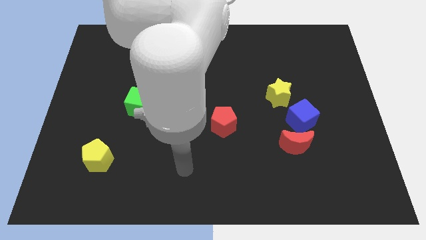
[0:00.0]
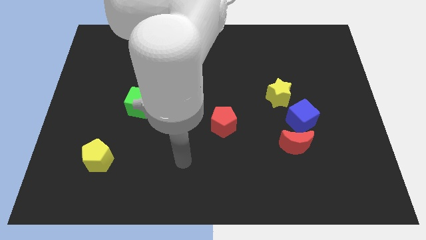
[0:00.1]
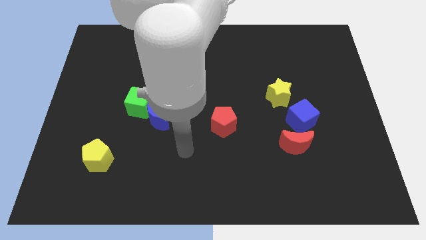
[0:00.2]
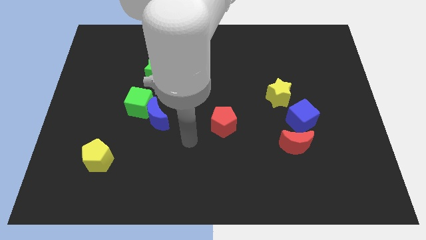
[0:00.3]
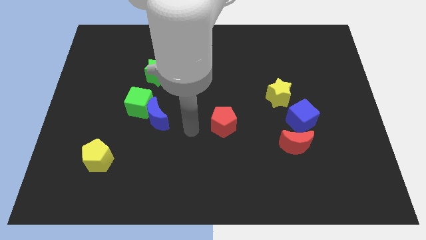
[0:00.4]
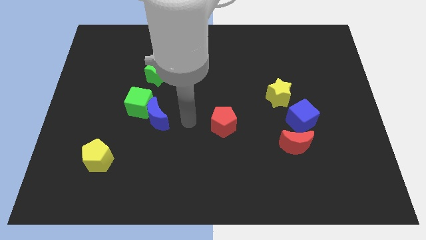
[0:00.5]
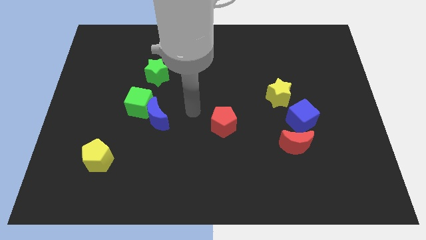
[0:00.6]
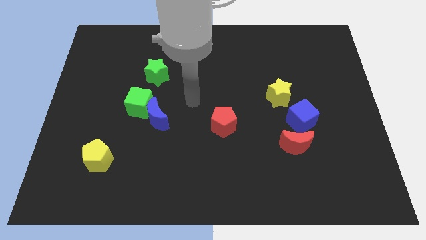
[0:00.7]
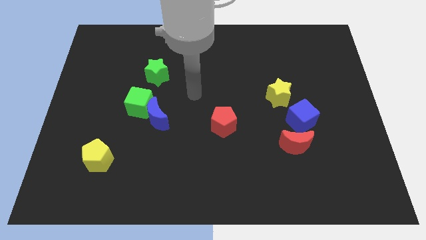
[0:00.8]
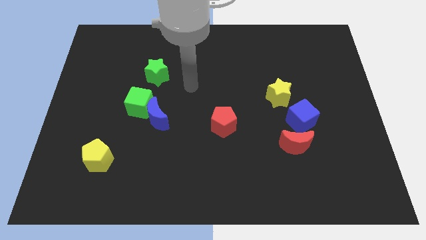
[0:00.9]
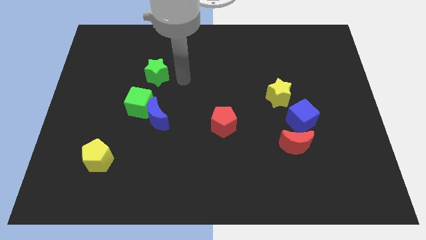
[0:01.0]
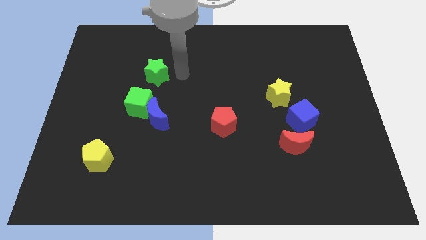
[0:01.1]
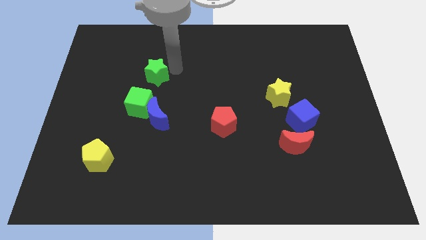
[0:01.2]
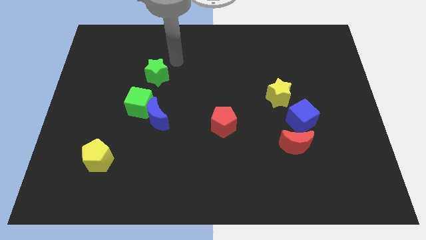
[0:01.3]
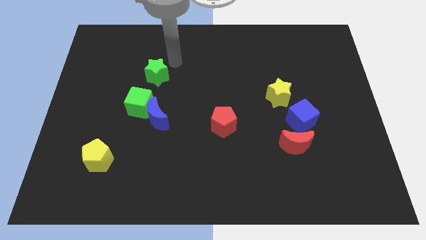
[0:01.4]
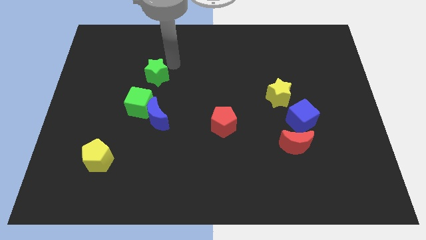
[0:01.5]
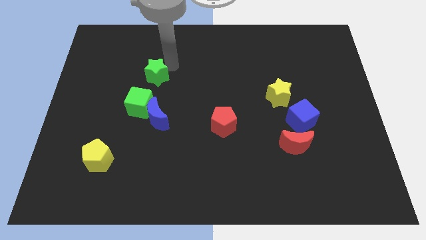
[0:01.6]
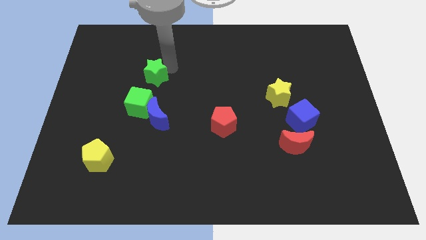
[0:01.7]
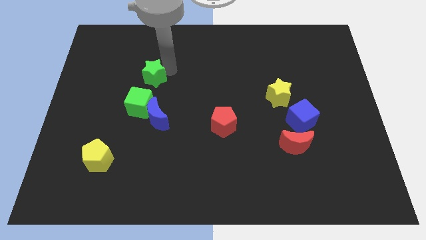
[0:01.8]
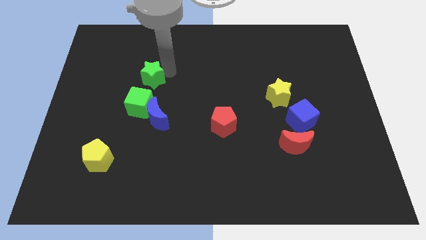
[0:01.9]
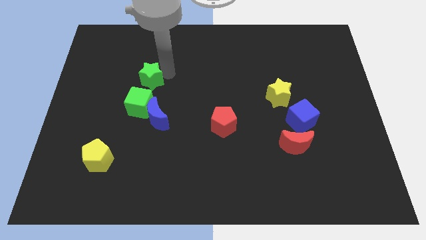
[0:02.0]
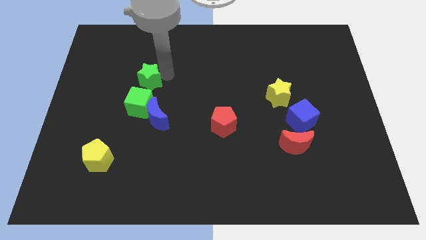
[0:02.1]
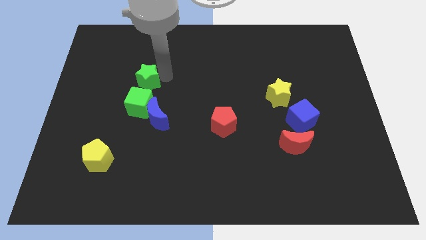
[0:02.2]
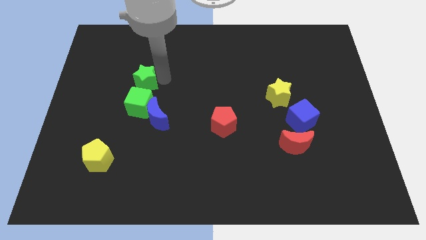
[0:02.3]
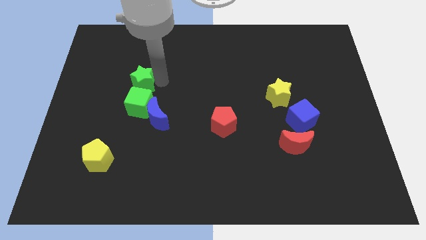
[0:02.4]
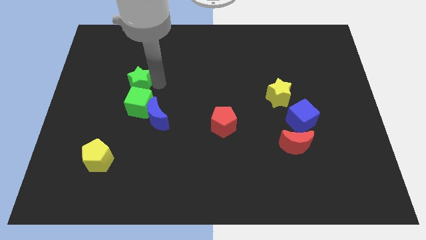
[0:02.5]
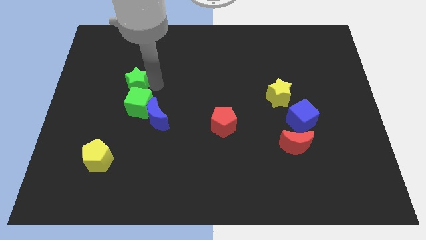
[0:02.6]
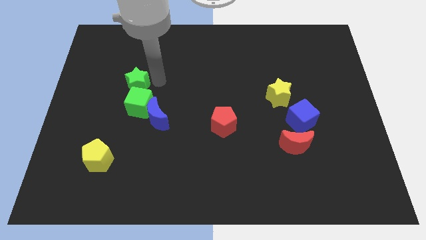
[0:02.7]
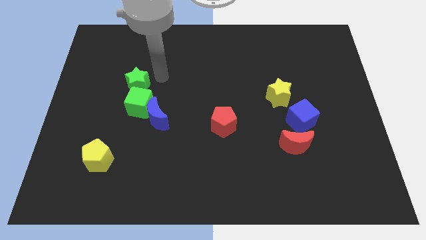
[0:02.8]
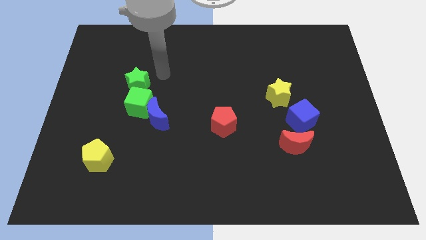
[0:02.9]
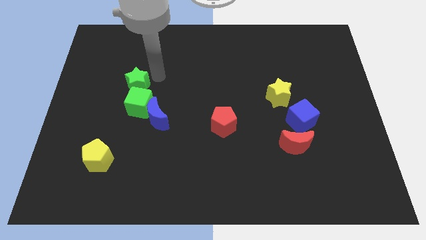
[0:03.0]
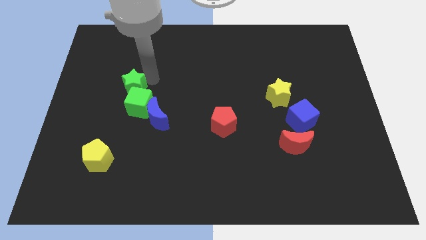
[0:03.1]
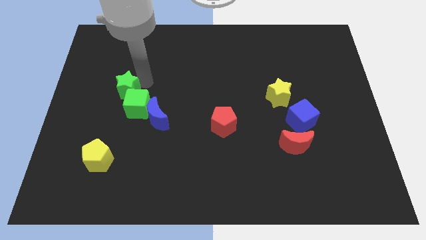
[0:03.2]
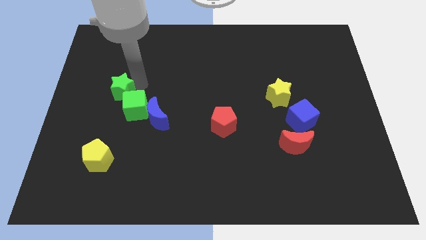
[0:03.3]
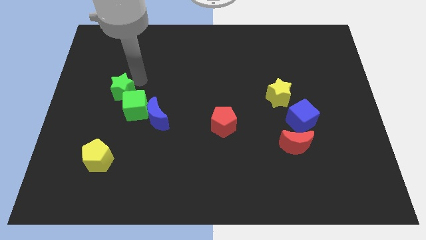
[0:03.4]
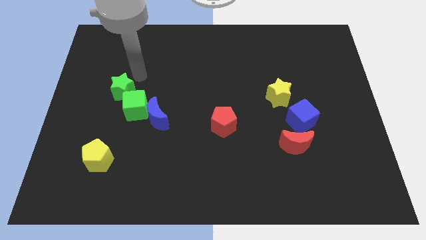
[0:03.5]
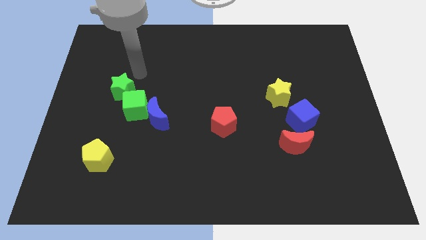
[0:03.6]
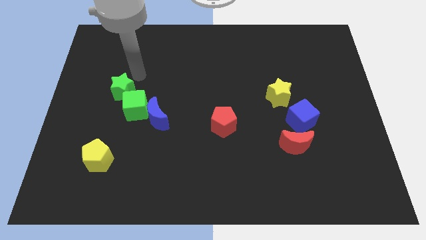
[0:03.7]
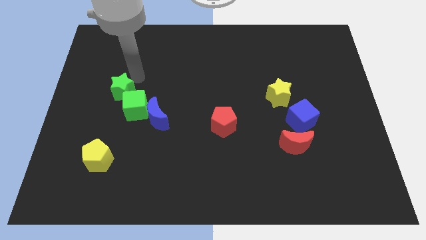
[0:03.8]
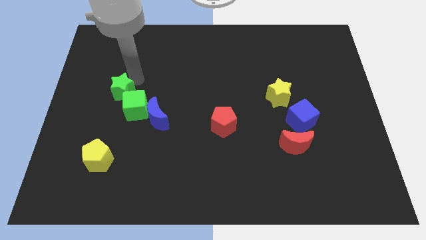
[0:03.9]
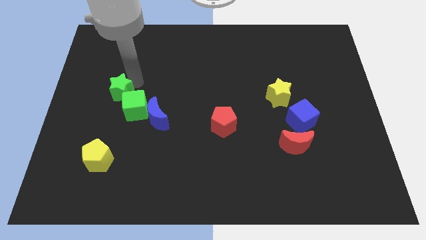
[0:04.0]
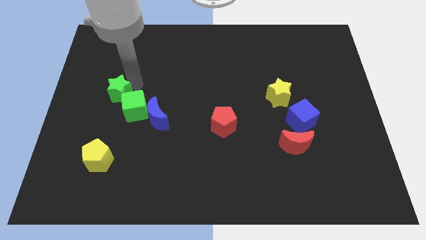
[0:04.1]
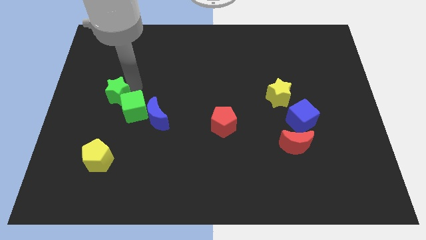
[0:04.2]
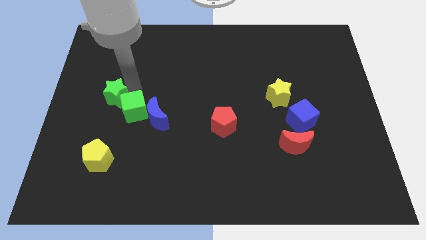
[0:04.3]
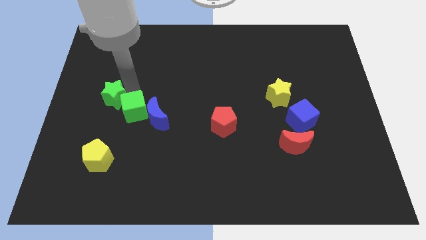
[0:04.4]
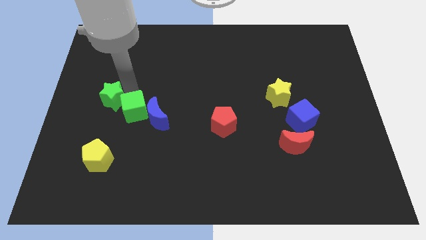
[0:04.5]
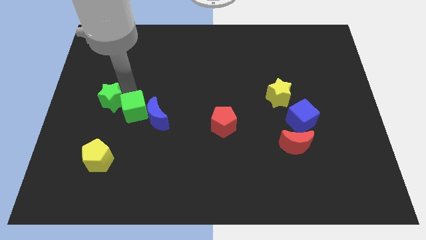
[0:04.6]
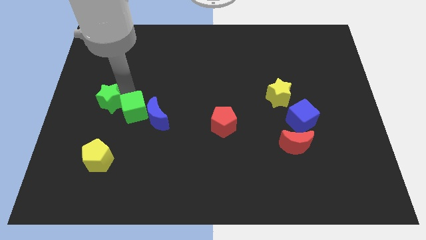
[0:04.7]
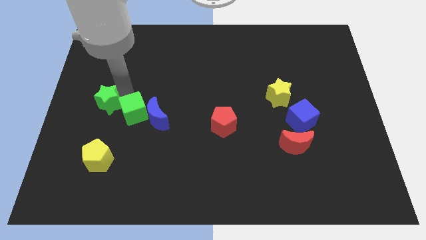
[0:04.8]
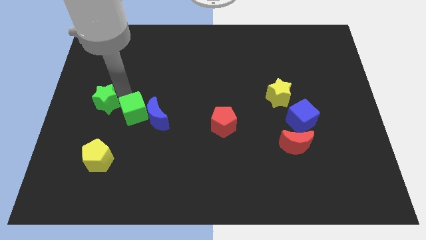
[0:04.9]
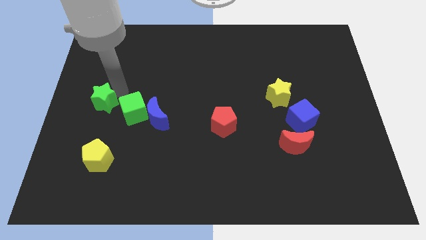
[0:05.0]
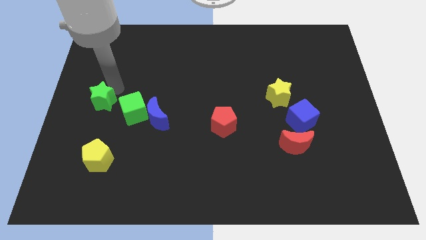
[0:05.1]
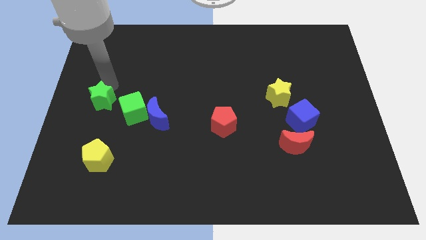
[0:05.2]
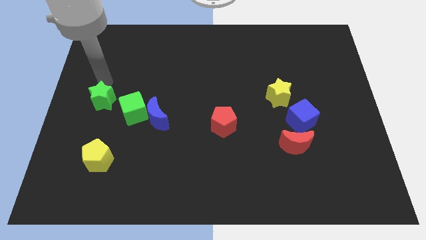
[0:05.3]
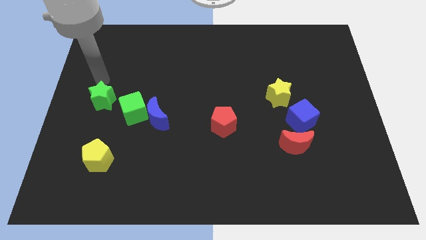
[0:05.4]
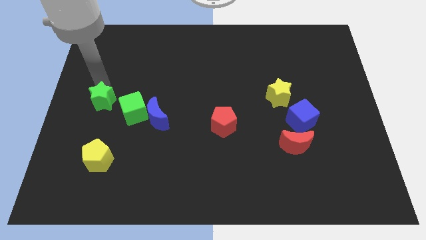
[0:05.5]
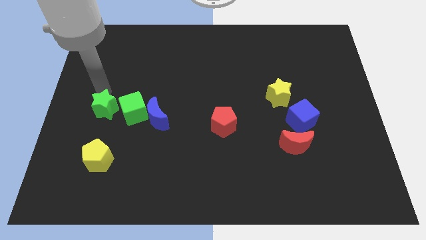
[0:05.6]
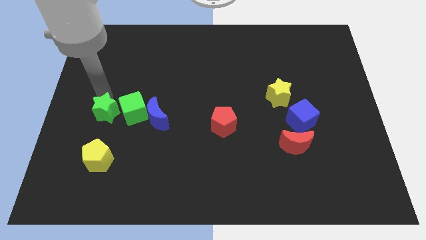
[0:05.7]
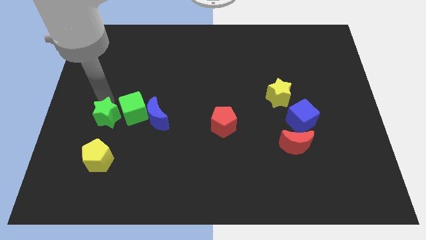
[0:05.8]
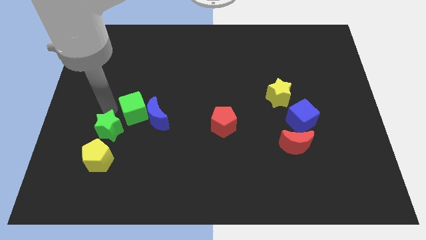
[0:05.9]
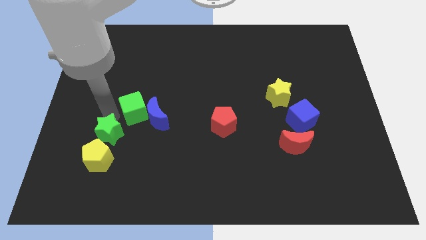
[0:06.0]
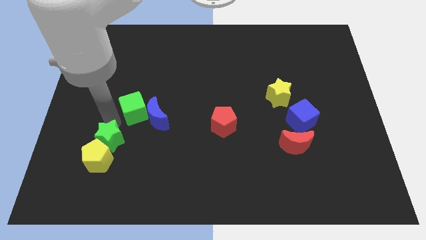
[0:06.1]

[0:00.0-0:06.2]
move the green star towards the yellow pentagon

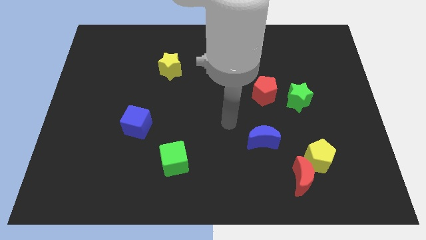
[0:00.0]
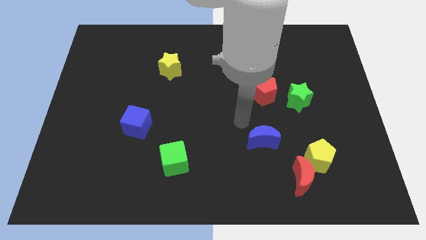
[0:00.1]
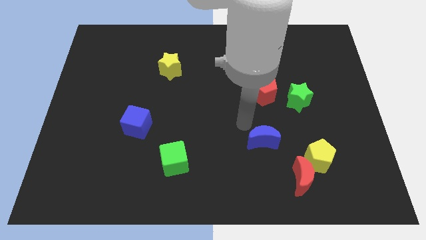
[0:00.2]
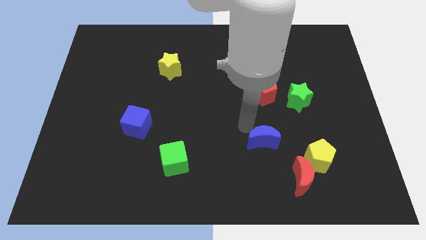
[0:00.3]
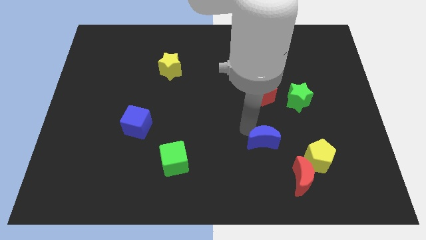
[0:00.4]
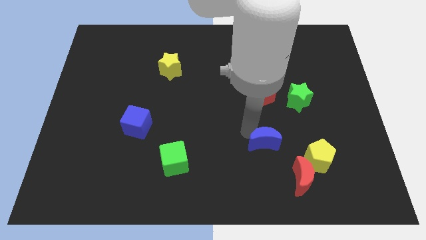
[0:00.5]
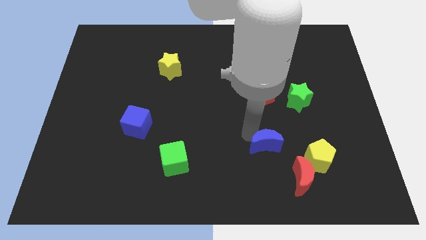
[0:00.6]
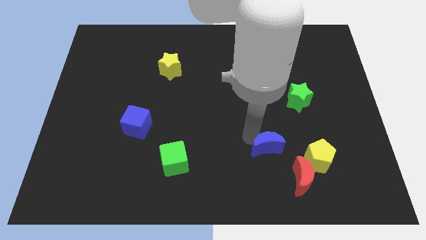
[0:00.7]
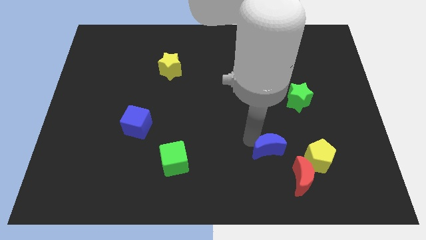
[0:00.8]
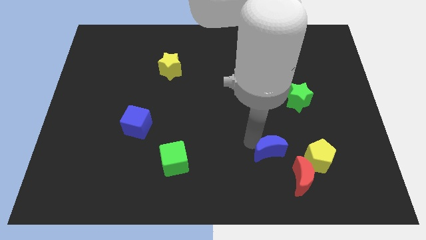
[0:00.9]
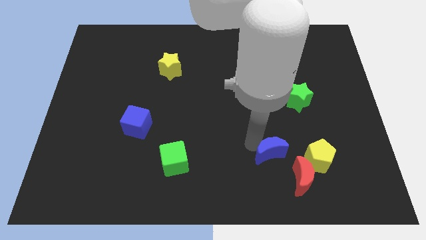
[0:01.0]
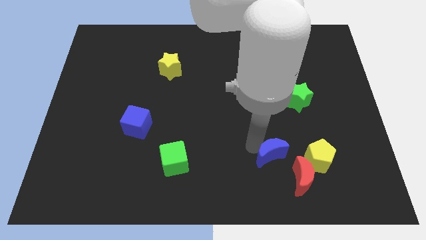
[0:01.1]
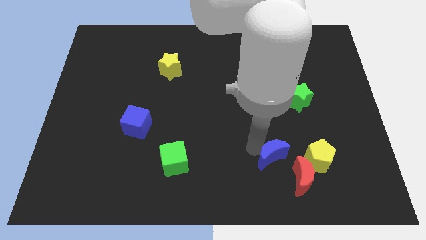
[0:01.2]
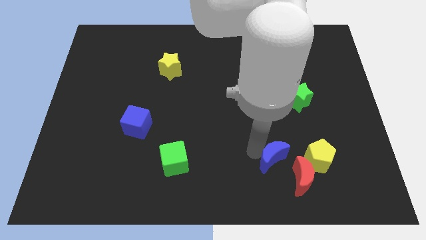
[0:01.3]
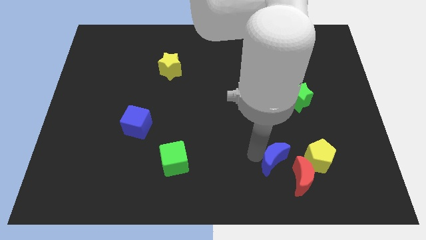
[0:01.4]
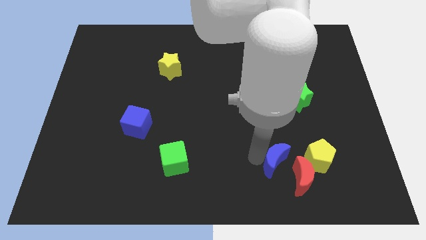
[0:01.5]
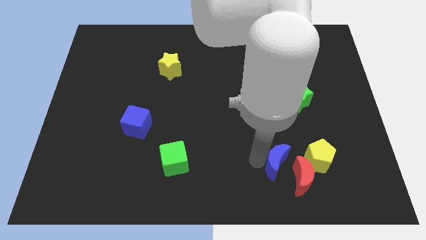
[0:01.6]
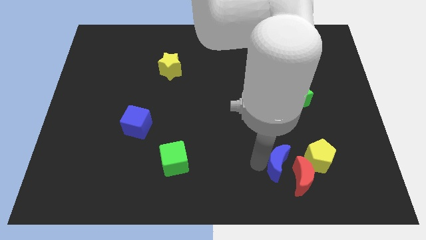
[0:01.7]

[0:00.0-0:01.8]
slide the blue moon towards the red moon
